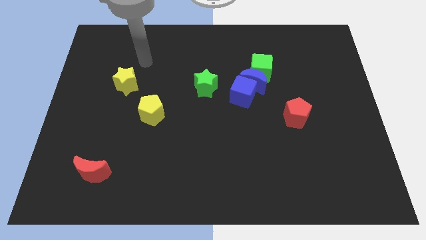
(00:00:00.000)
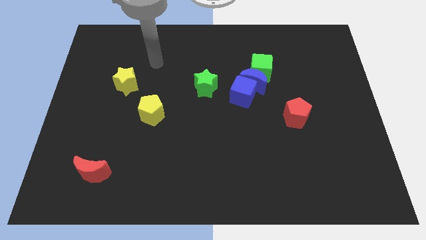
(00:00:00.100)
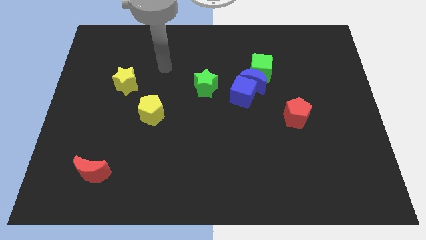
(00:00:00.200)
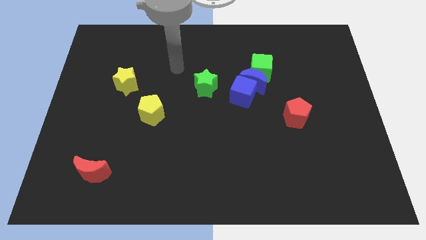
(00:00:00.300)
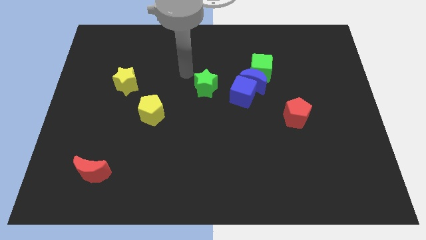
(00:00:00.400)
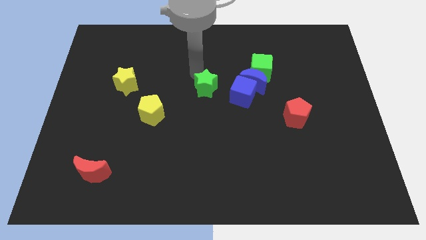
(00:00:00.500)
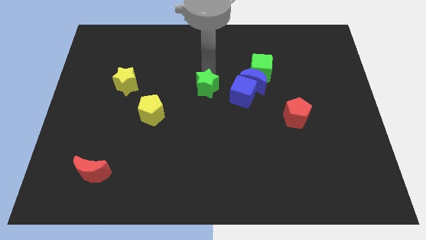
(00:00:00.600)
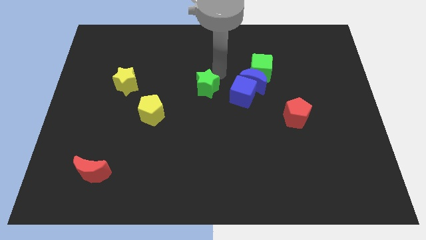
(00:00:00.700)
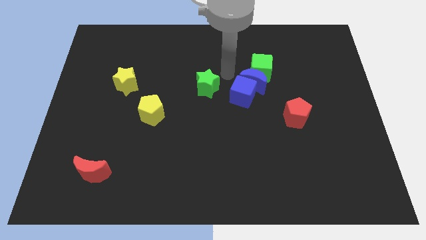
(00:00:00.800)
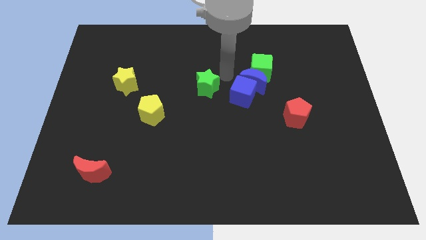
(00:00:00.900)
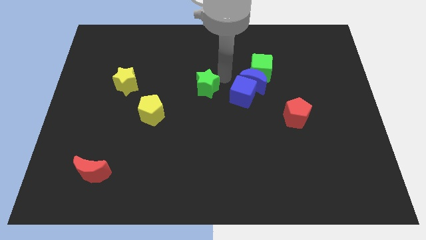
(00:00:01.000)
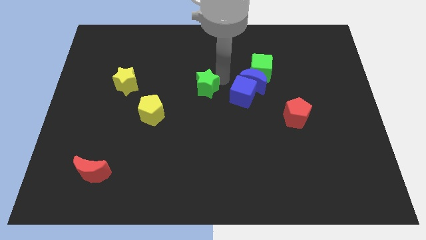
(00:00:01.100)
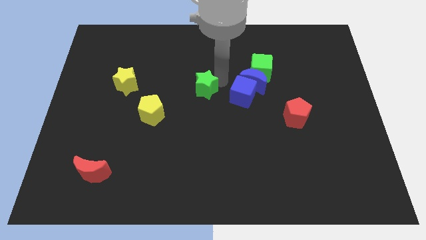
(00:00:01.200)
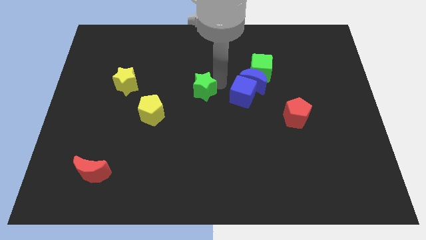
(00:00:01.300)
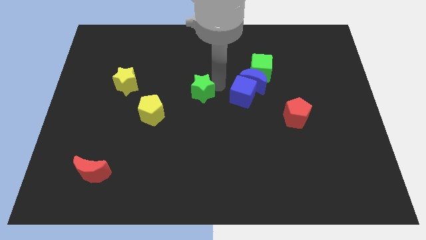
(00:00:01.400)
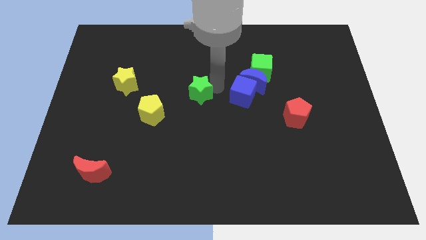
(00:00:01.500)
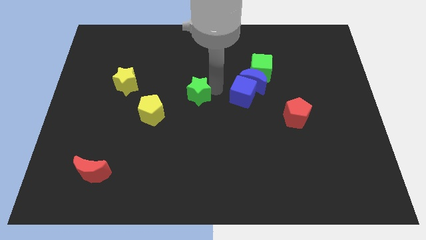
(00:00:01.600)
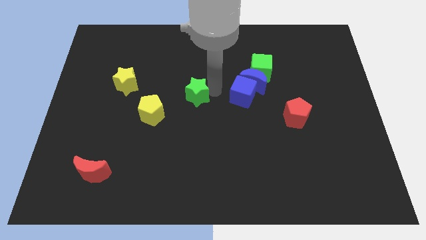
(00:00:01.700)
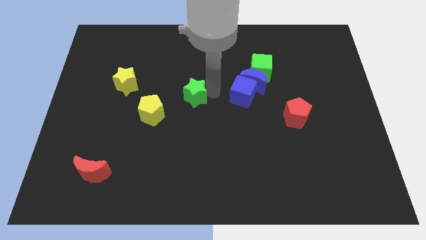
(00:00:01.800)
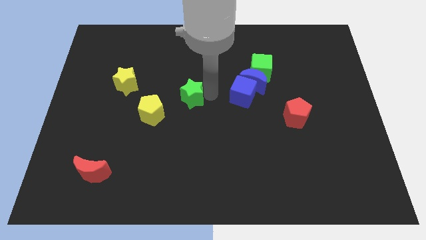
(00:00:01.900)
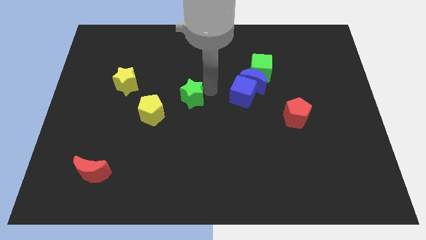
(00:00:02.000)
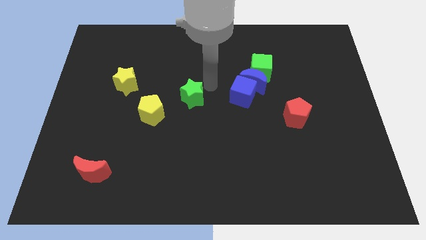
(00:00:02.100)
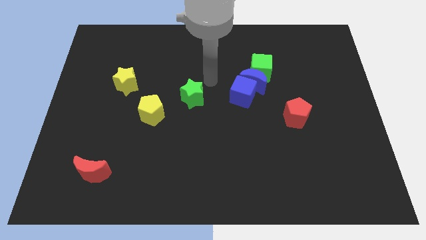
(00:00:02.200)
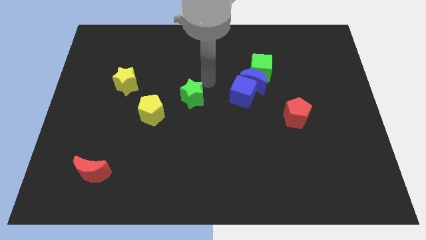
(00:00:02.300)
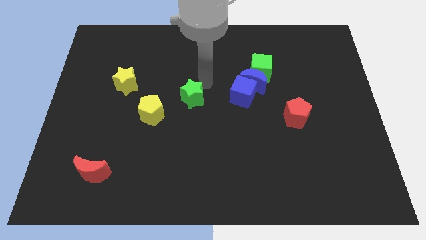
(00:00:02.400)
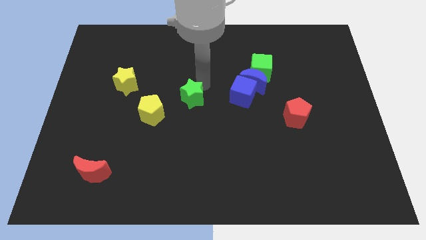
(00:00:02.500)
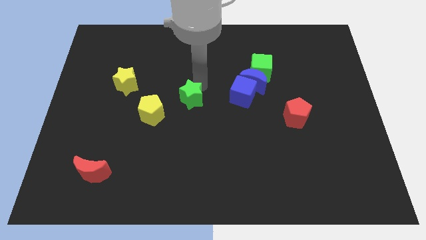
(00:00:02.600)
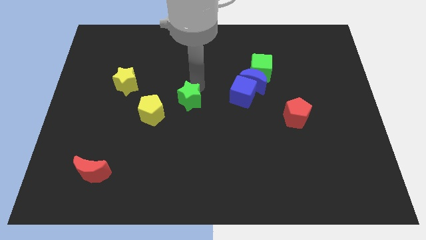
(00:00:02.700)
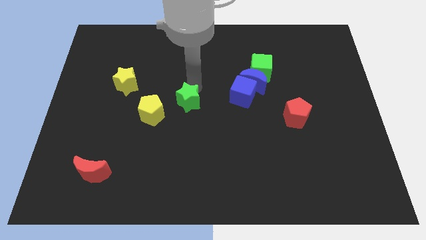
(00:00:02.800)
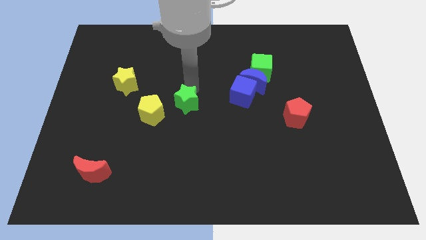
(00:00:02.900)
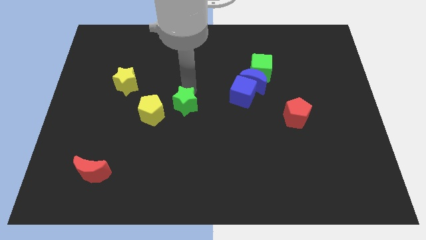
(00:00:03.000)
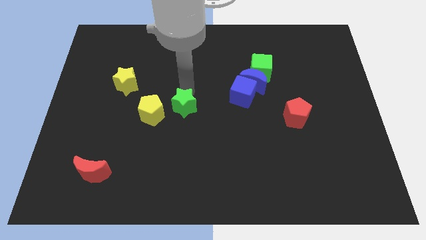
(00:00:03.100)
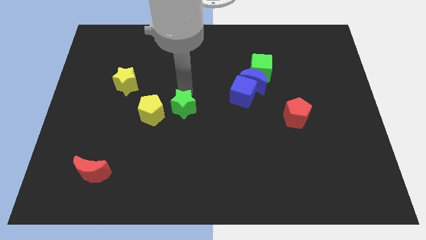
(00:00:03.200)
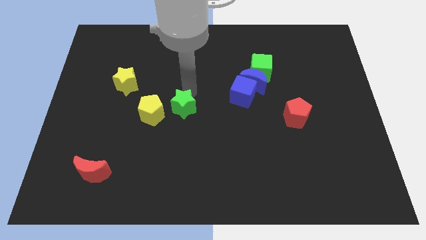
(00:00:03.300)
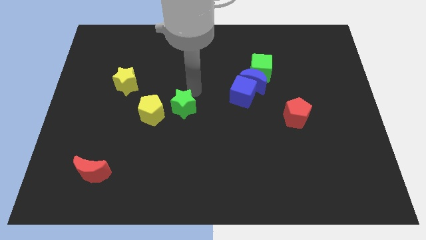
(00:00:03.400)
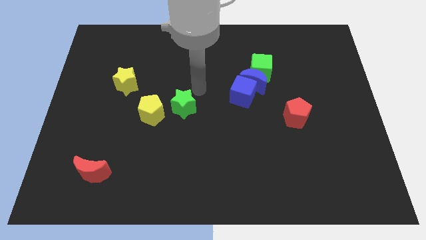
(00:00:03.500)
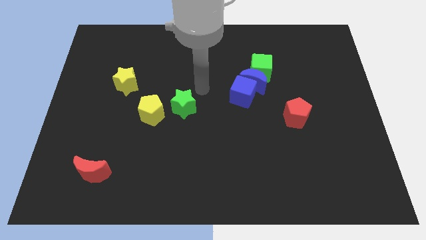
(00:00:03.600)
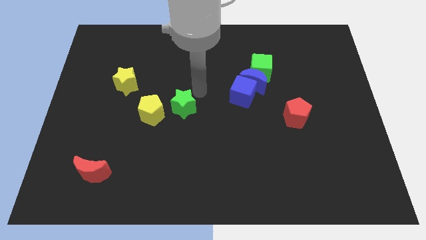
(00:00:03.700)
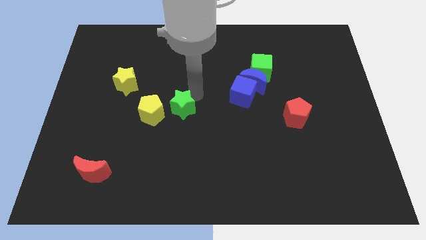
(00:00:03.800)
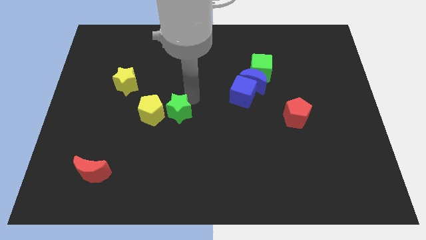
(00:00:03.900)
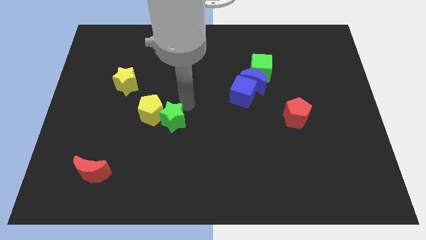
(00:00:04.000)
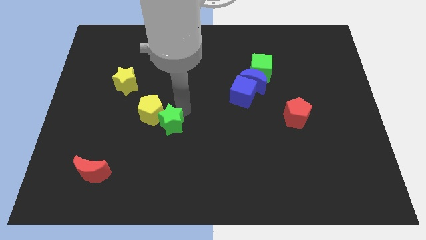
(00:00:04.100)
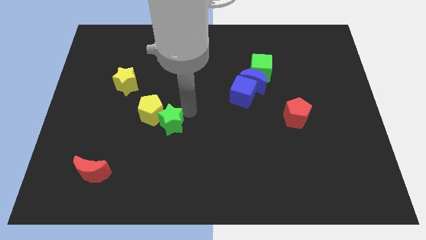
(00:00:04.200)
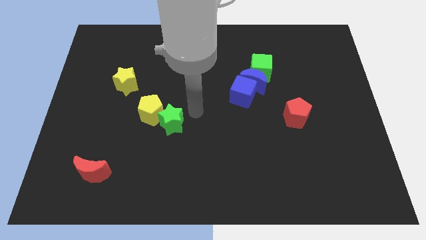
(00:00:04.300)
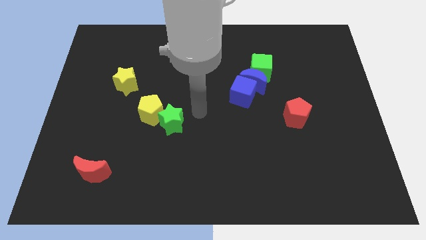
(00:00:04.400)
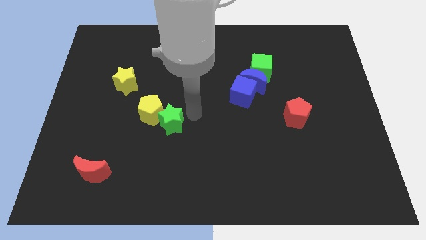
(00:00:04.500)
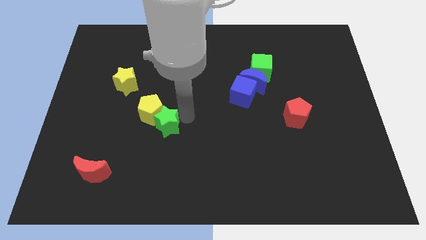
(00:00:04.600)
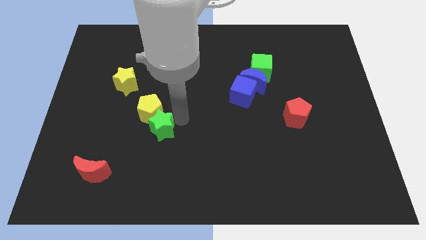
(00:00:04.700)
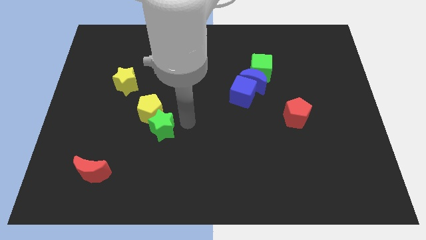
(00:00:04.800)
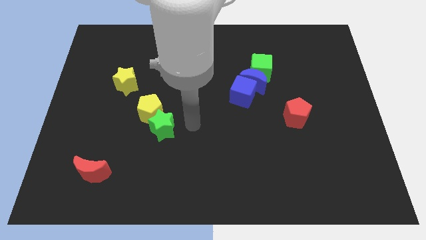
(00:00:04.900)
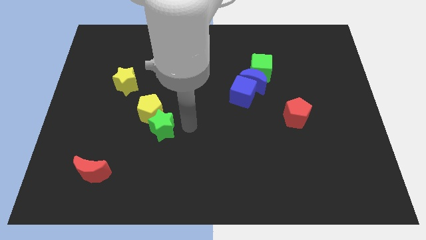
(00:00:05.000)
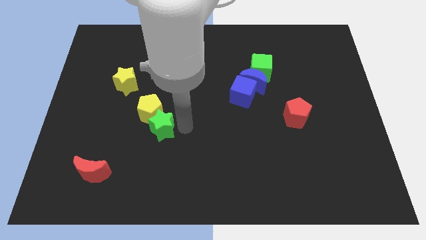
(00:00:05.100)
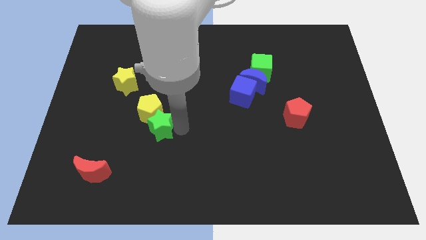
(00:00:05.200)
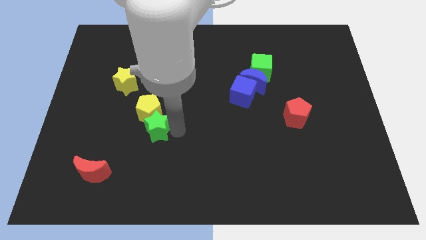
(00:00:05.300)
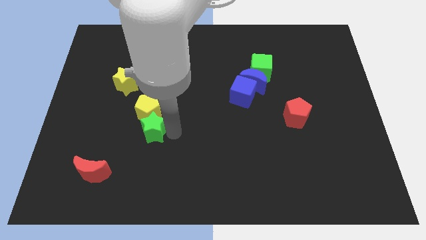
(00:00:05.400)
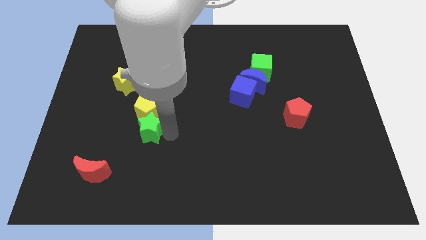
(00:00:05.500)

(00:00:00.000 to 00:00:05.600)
put the green star to the bottom left of the yellow pentagon

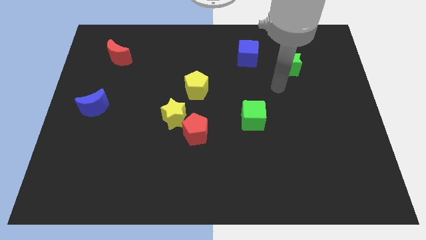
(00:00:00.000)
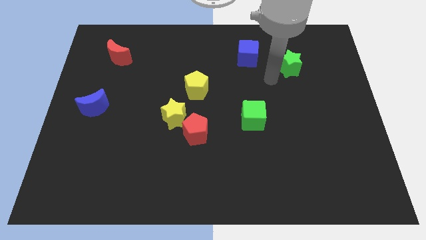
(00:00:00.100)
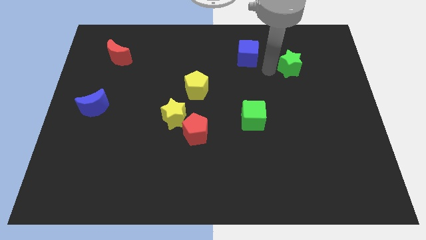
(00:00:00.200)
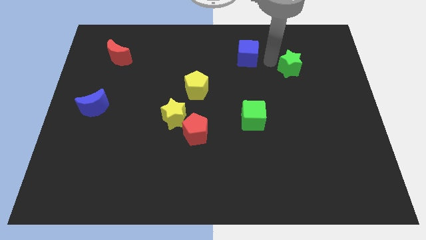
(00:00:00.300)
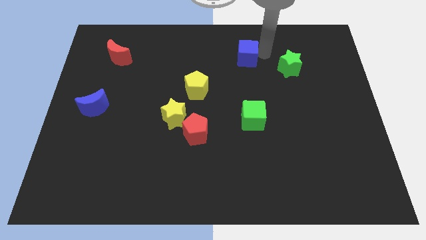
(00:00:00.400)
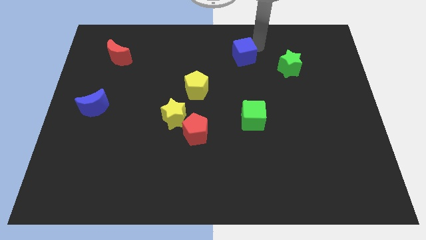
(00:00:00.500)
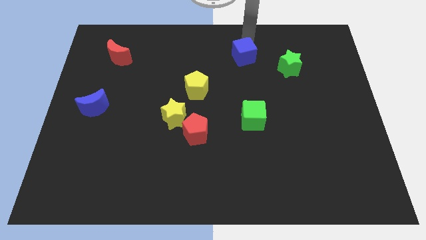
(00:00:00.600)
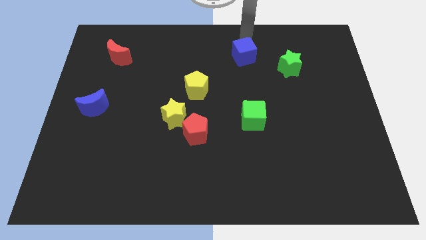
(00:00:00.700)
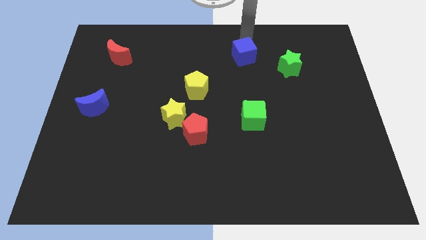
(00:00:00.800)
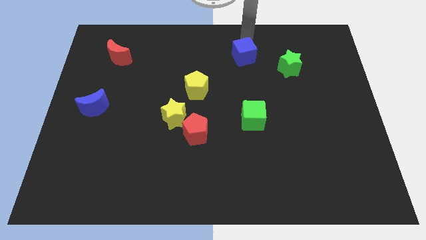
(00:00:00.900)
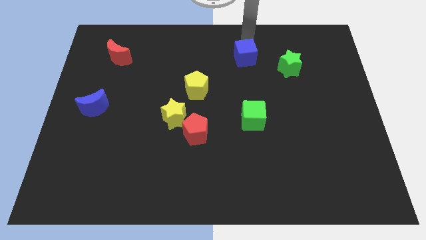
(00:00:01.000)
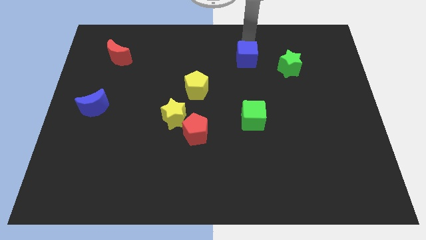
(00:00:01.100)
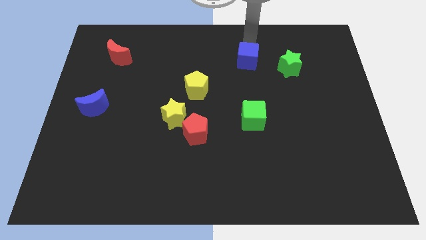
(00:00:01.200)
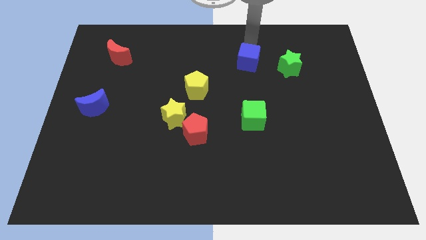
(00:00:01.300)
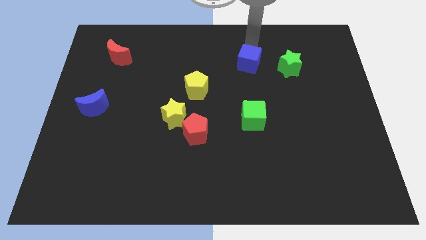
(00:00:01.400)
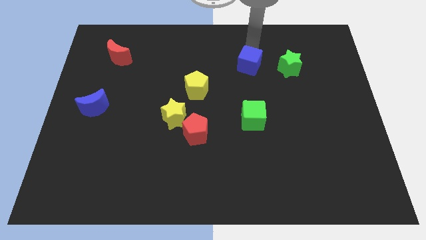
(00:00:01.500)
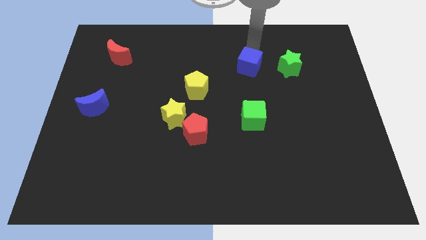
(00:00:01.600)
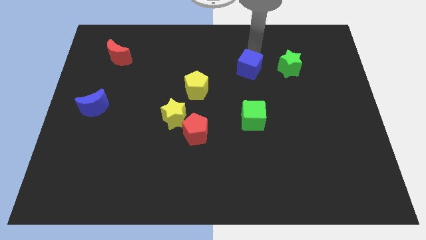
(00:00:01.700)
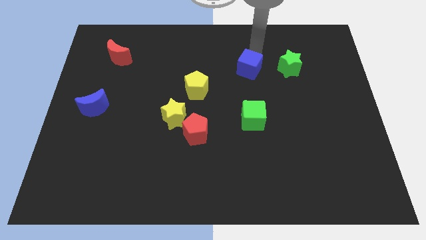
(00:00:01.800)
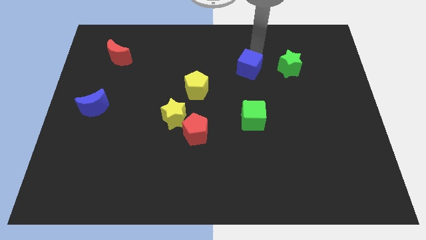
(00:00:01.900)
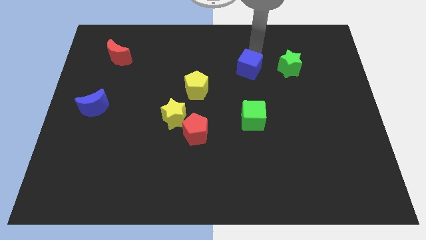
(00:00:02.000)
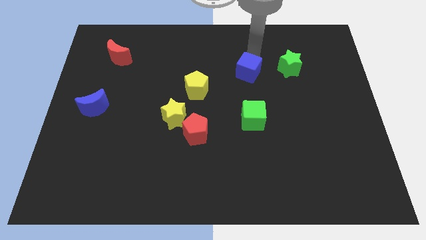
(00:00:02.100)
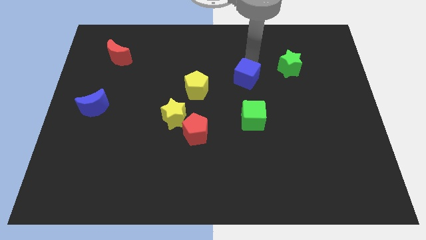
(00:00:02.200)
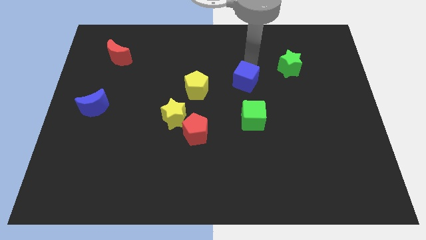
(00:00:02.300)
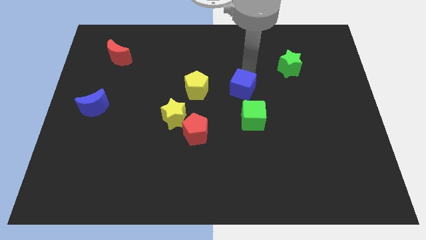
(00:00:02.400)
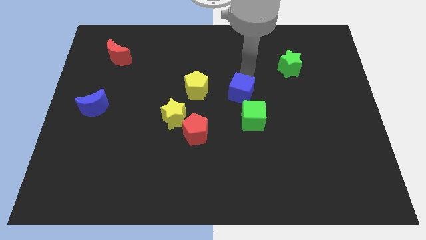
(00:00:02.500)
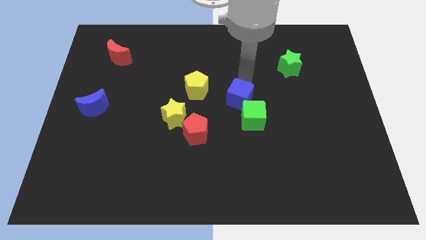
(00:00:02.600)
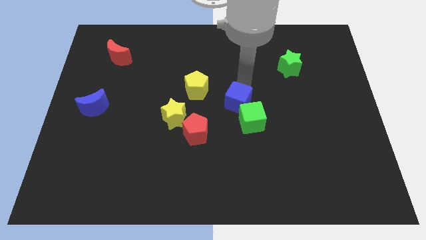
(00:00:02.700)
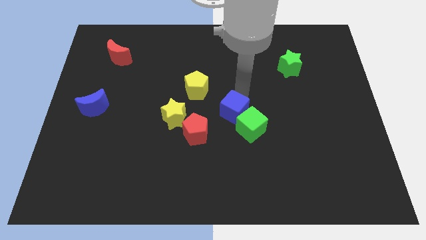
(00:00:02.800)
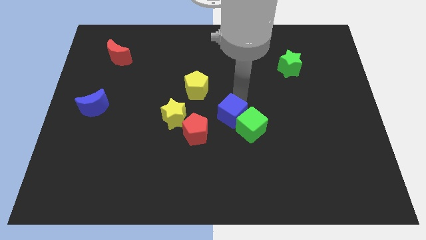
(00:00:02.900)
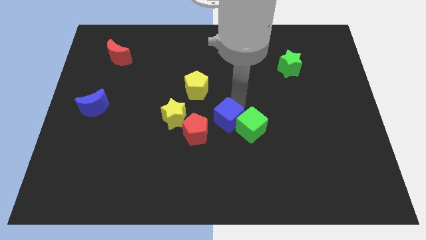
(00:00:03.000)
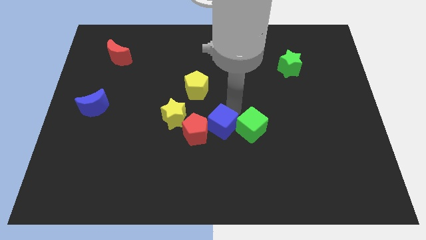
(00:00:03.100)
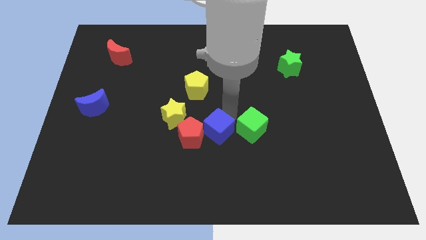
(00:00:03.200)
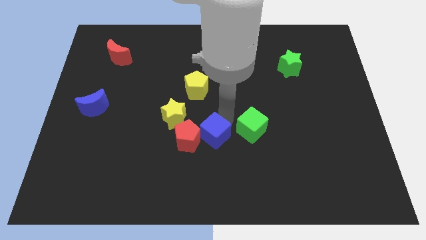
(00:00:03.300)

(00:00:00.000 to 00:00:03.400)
push the blue cube to the bottom right of the yellow star
